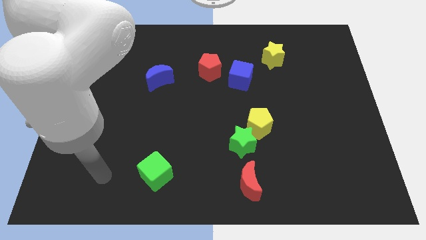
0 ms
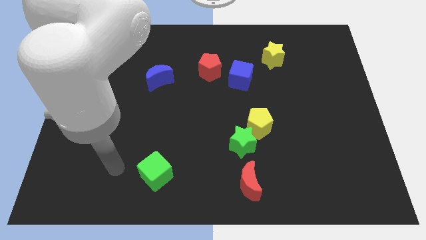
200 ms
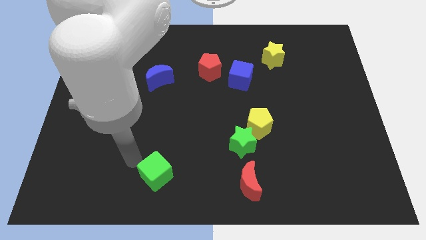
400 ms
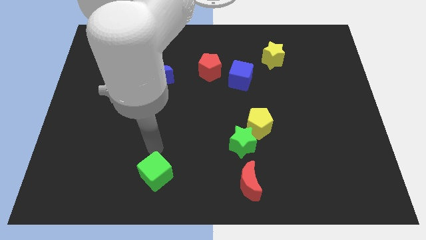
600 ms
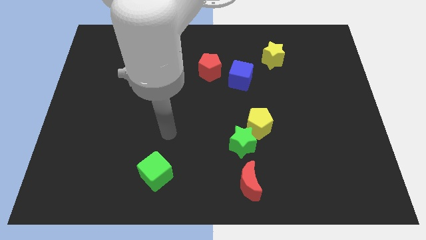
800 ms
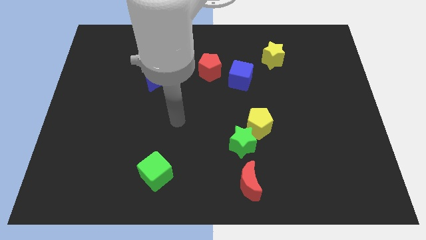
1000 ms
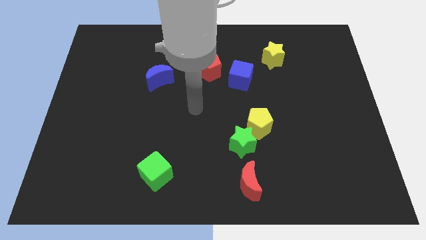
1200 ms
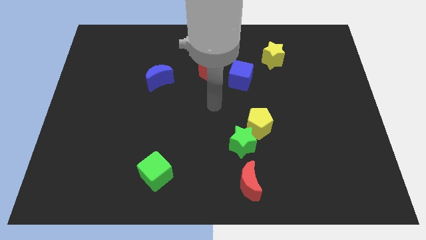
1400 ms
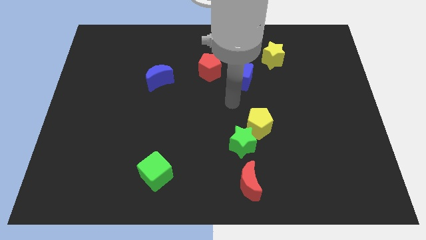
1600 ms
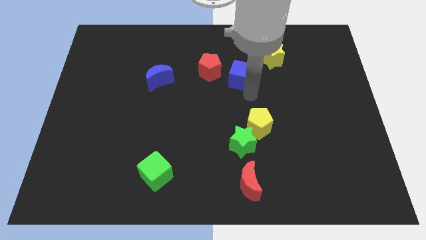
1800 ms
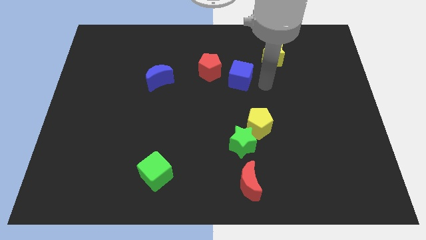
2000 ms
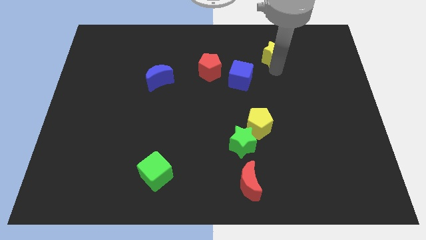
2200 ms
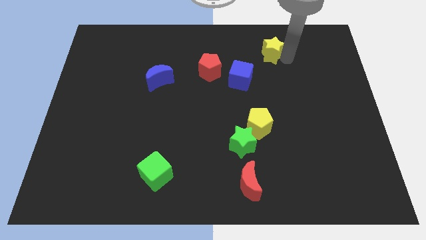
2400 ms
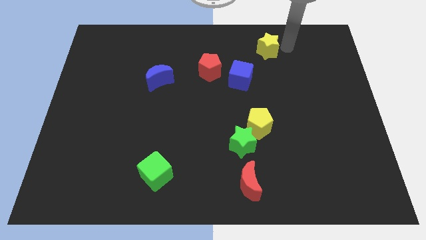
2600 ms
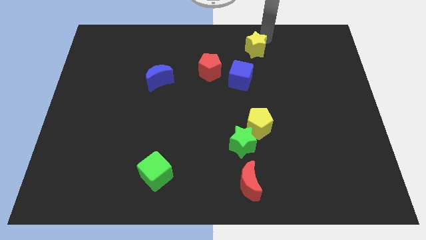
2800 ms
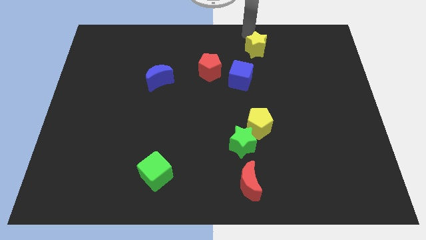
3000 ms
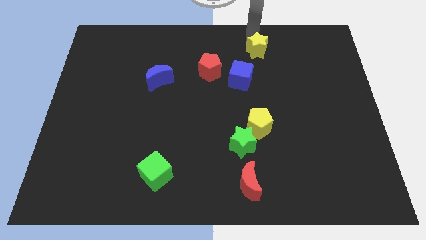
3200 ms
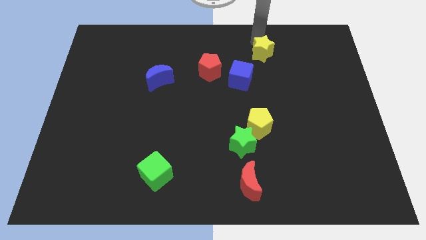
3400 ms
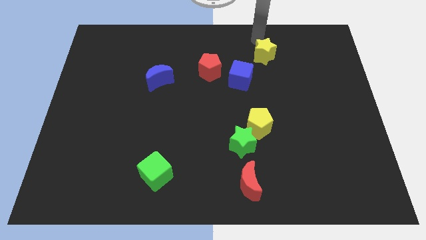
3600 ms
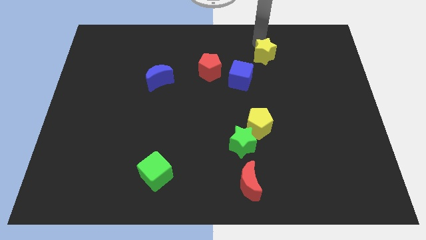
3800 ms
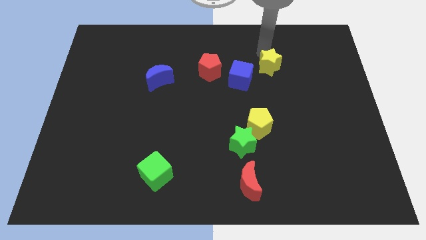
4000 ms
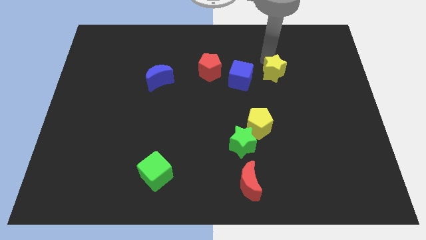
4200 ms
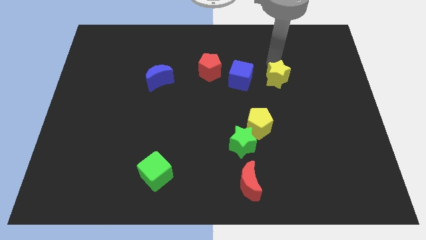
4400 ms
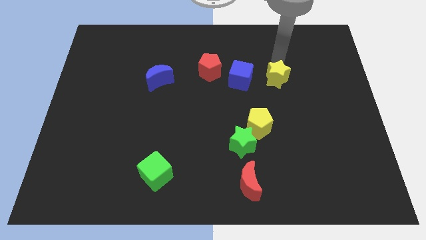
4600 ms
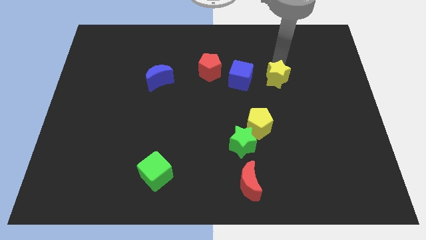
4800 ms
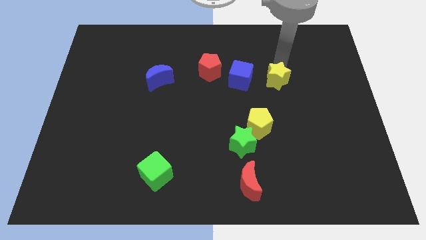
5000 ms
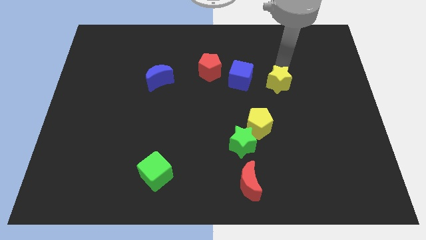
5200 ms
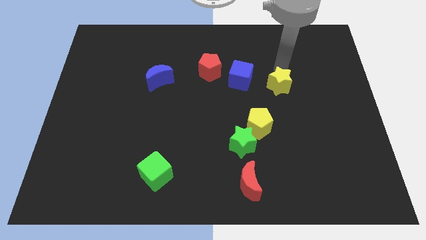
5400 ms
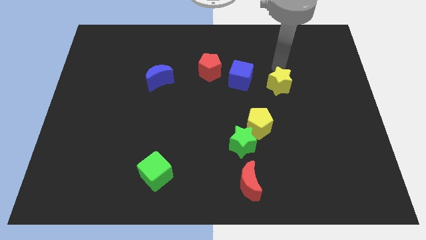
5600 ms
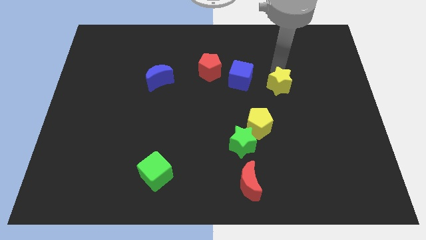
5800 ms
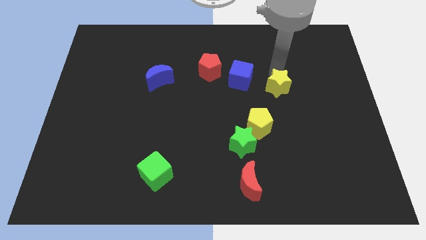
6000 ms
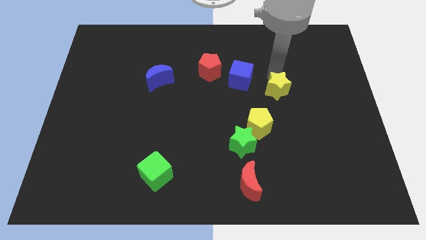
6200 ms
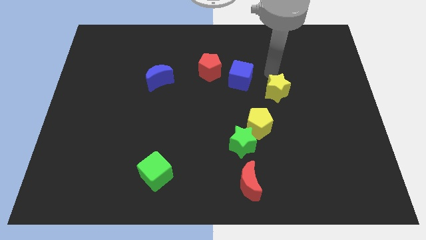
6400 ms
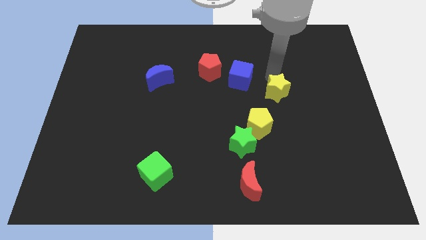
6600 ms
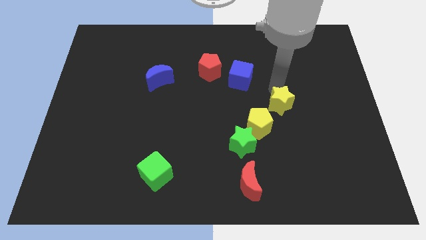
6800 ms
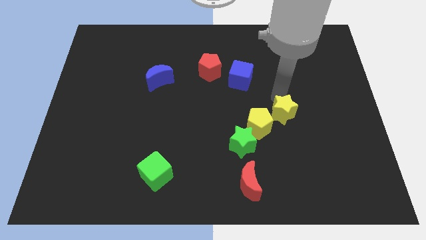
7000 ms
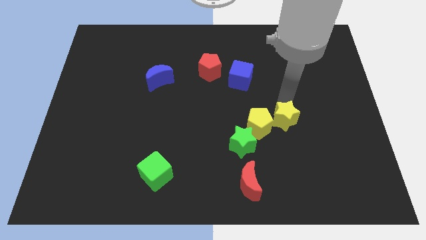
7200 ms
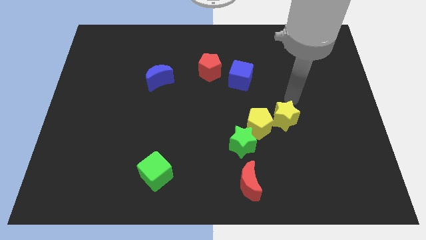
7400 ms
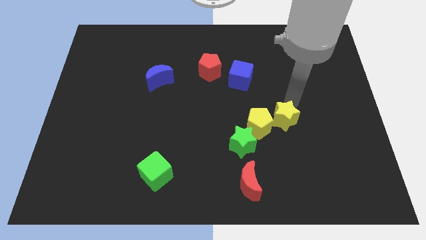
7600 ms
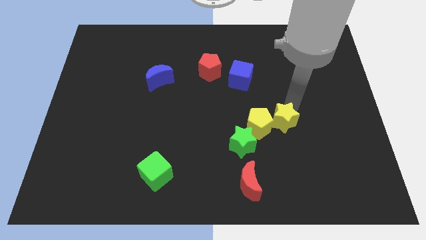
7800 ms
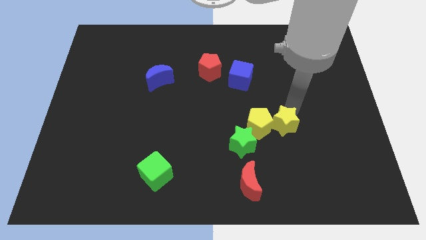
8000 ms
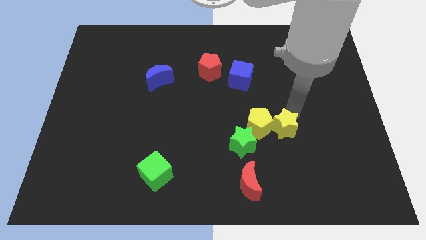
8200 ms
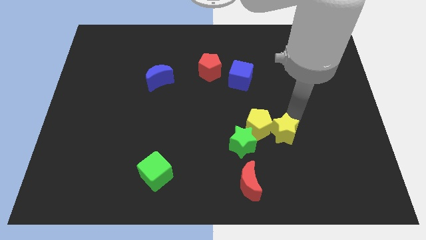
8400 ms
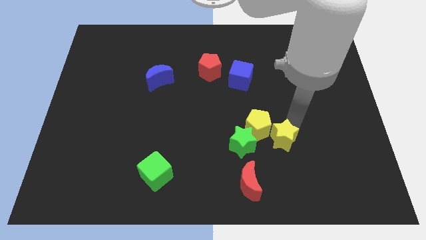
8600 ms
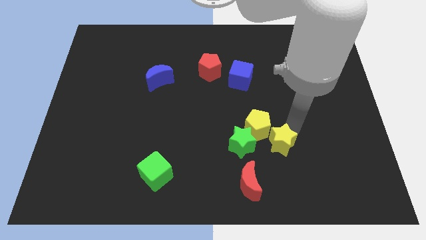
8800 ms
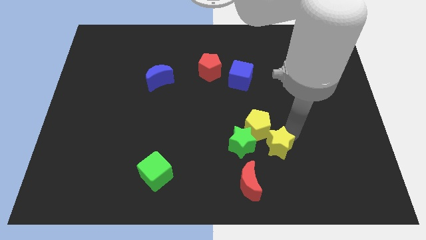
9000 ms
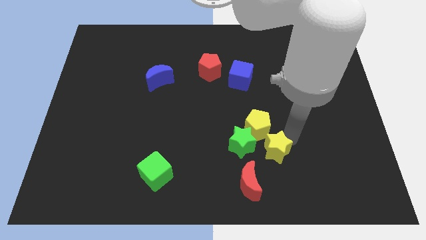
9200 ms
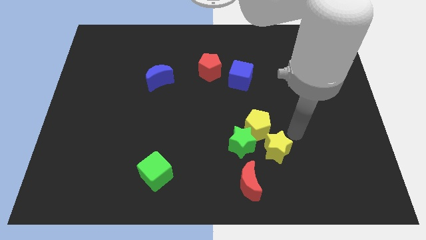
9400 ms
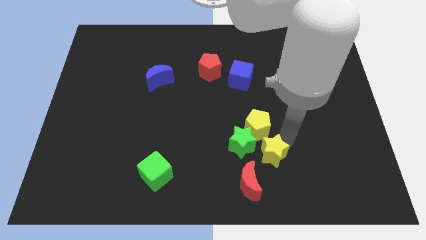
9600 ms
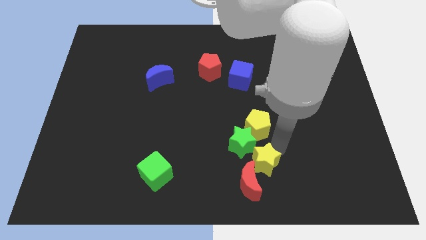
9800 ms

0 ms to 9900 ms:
push the yellow star towards the red moon

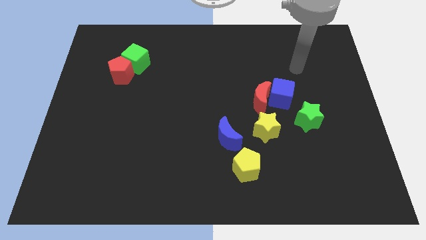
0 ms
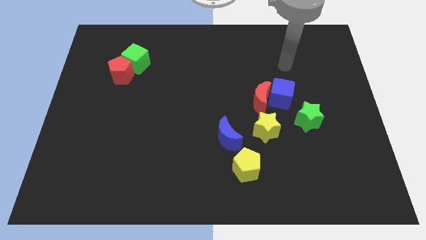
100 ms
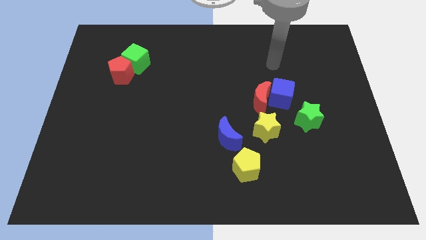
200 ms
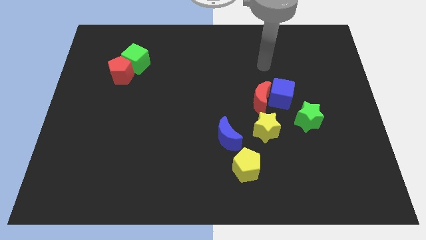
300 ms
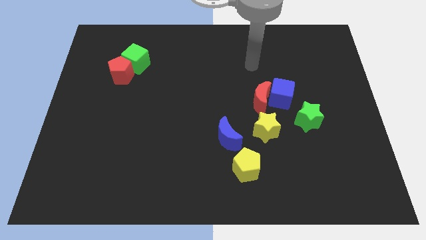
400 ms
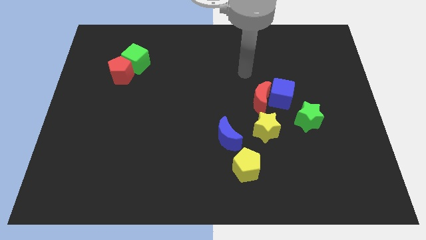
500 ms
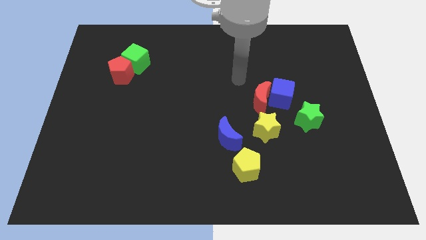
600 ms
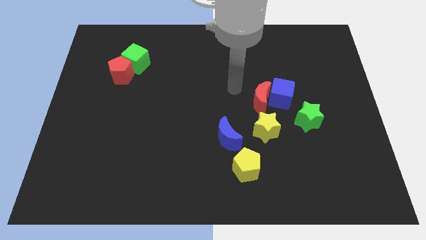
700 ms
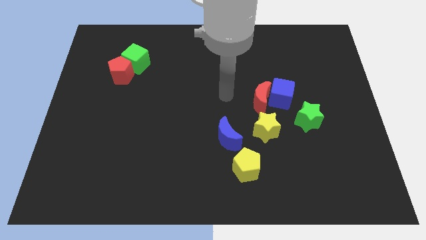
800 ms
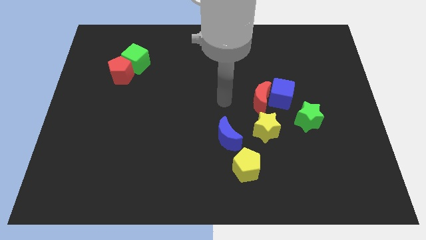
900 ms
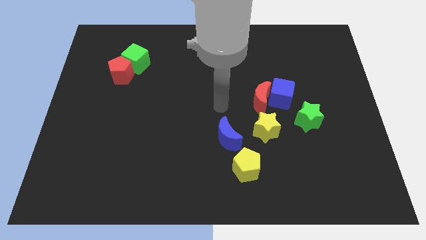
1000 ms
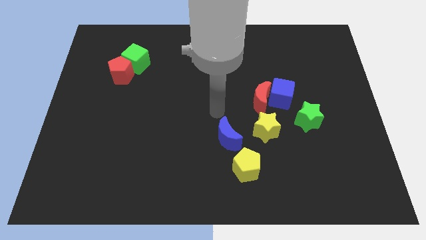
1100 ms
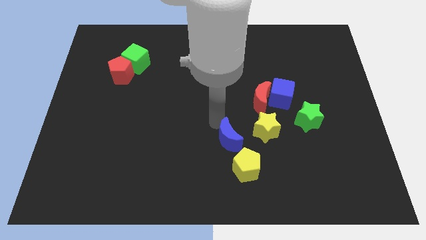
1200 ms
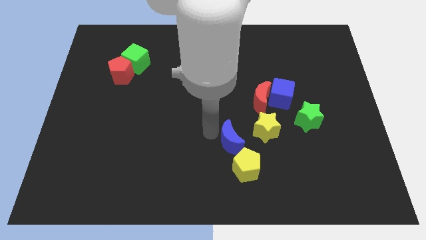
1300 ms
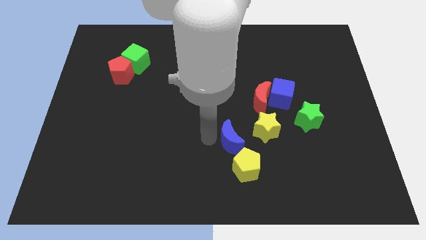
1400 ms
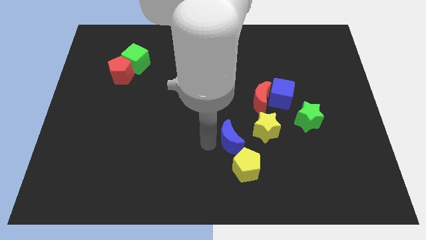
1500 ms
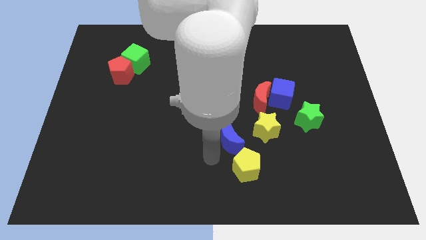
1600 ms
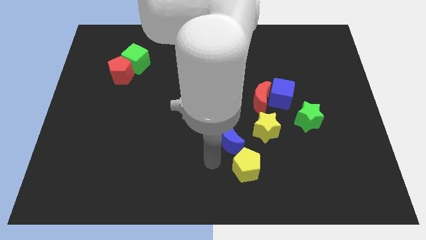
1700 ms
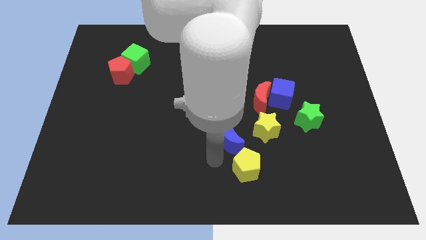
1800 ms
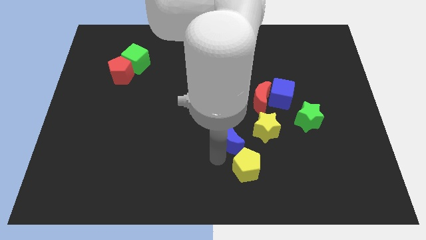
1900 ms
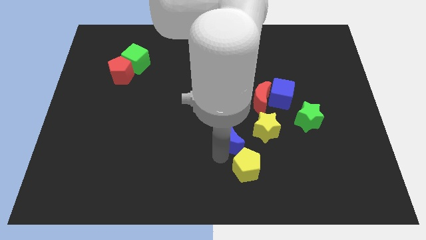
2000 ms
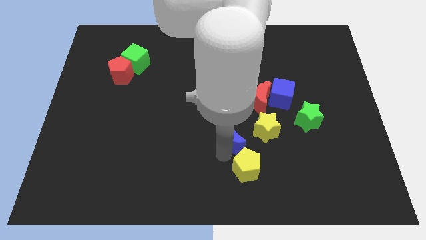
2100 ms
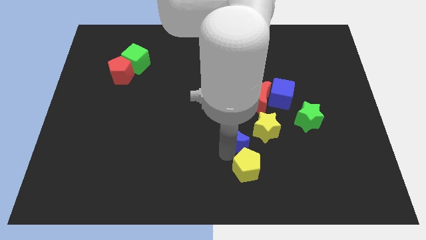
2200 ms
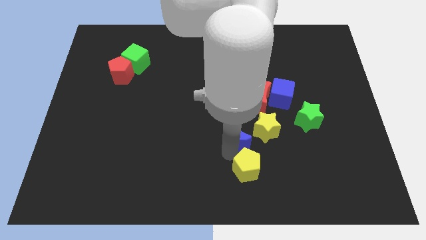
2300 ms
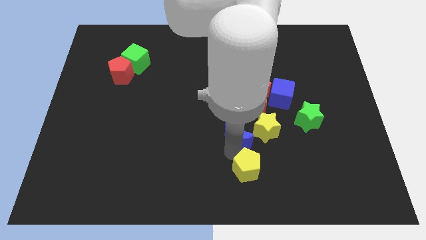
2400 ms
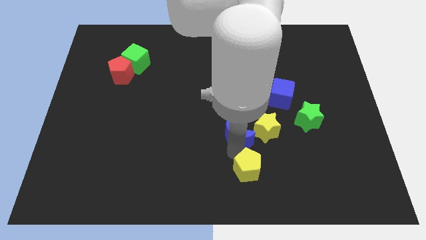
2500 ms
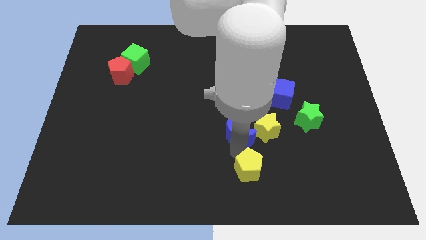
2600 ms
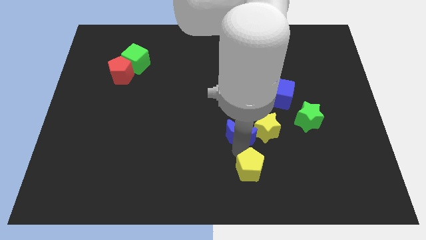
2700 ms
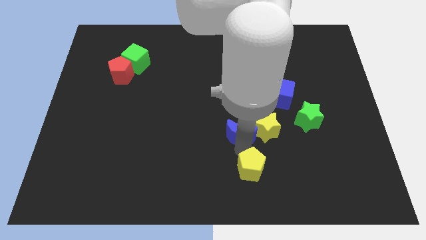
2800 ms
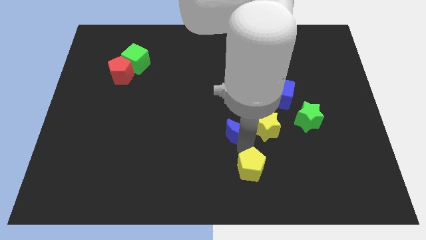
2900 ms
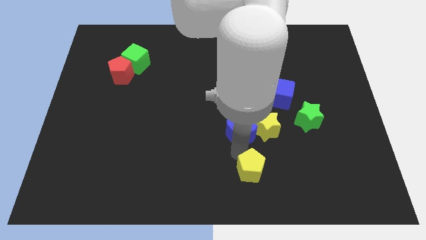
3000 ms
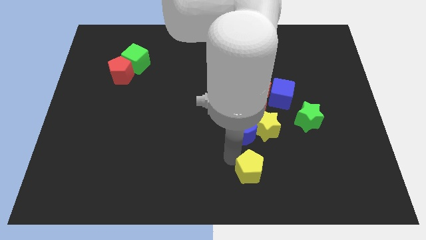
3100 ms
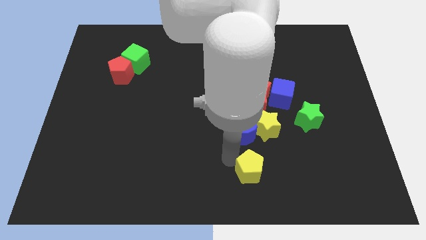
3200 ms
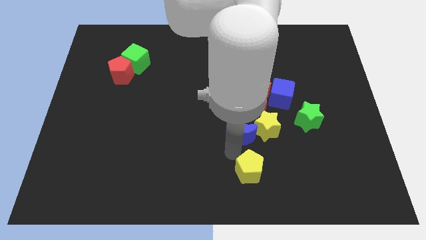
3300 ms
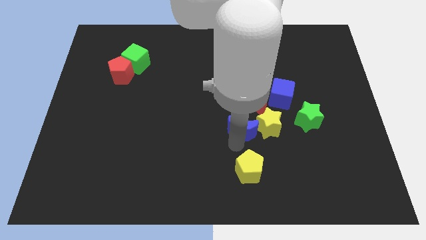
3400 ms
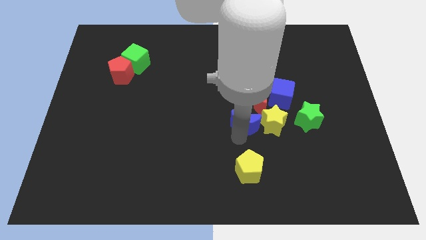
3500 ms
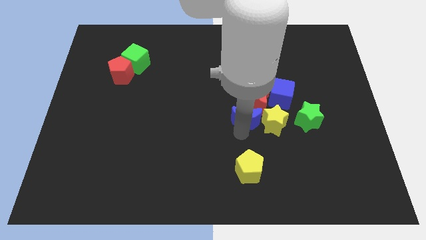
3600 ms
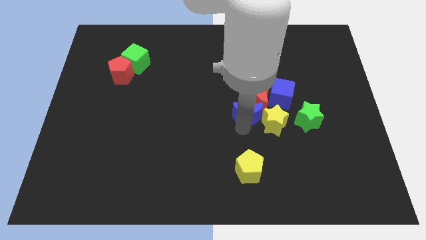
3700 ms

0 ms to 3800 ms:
slide the blue moon next to the red moon
